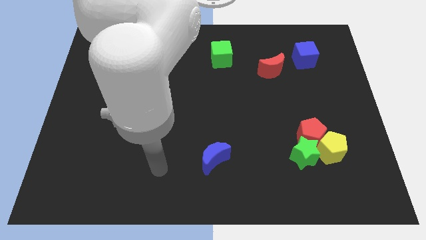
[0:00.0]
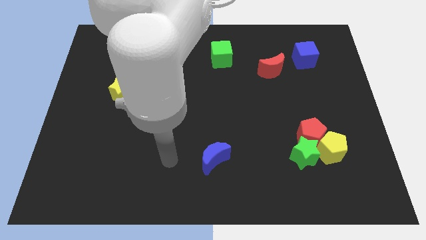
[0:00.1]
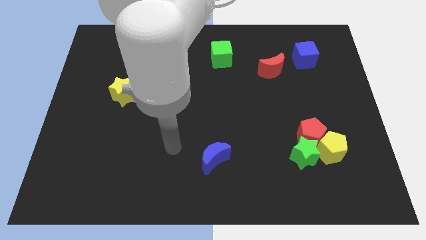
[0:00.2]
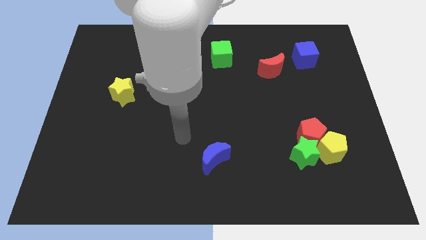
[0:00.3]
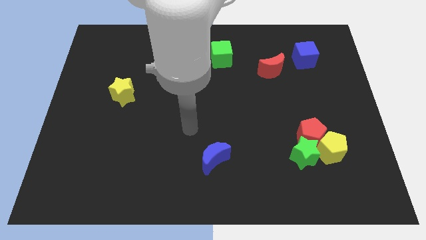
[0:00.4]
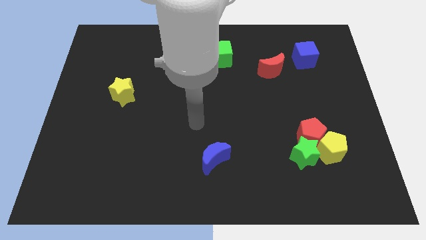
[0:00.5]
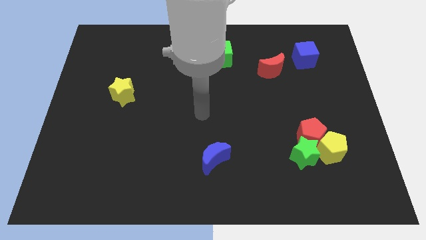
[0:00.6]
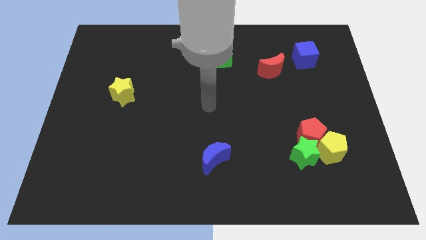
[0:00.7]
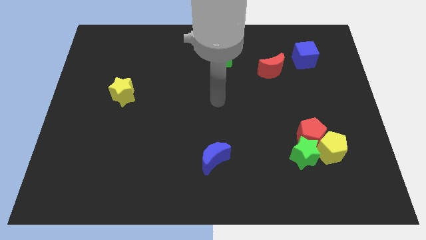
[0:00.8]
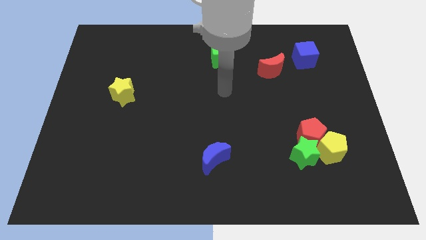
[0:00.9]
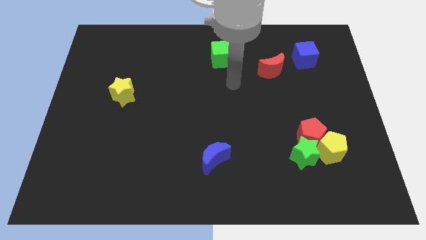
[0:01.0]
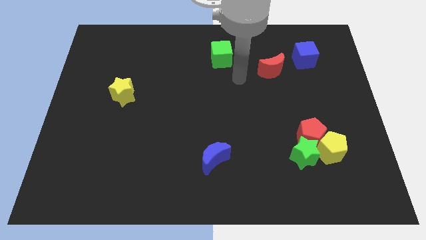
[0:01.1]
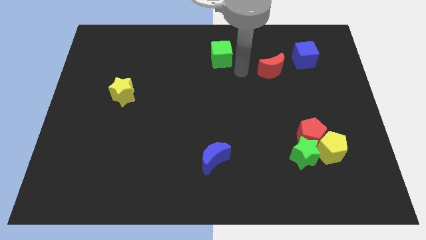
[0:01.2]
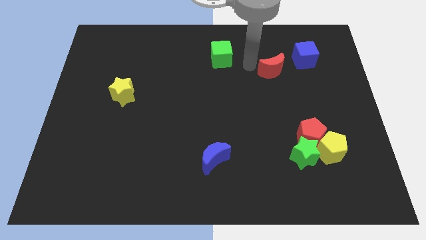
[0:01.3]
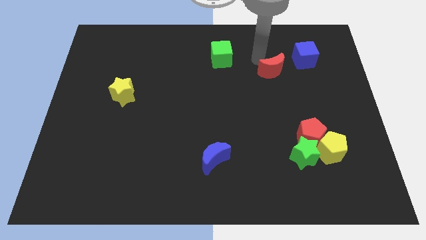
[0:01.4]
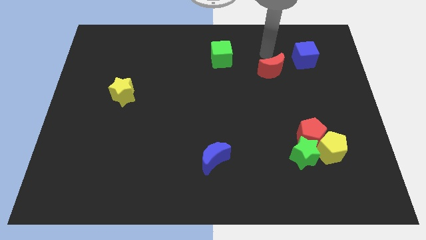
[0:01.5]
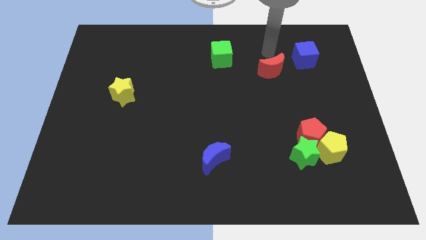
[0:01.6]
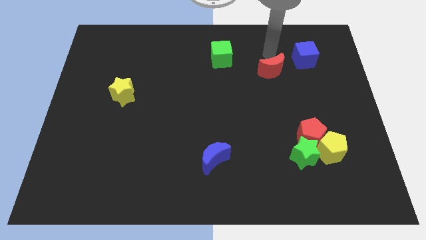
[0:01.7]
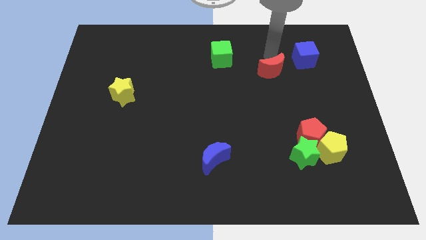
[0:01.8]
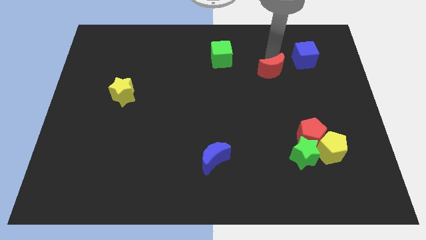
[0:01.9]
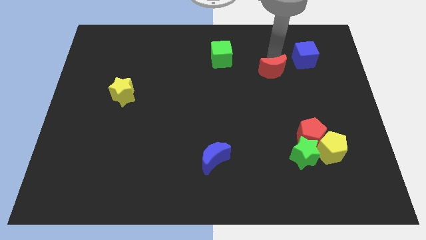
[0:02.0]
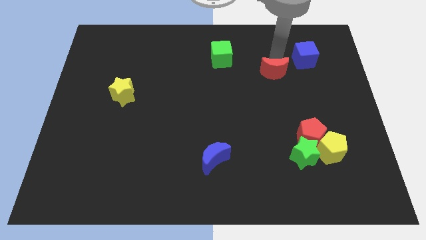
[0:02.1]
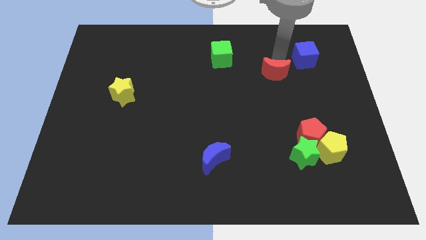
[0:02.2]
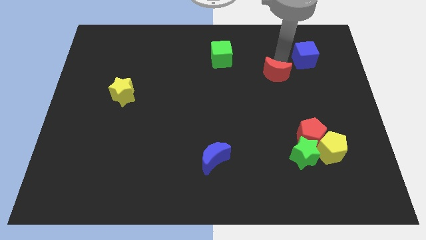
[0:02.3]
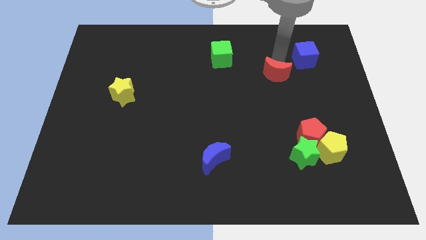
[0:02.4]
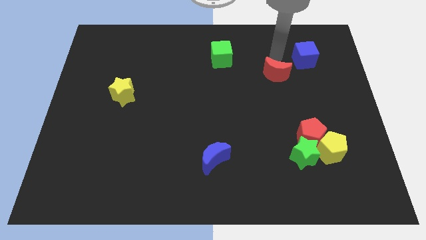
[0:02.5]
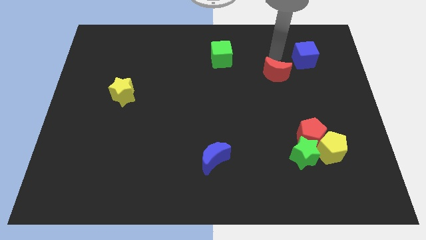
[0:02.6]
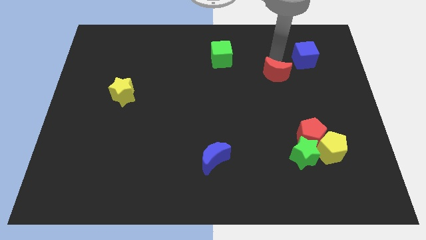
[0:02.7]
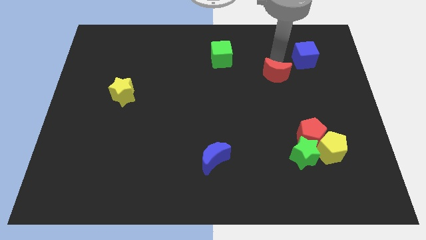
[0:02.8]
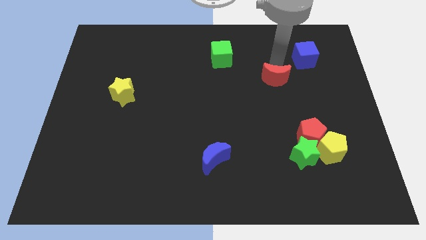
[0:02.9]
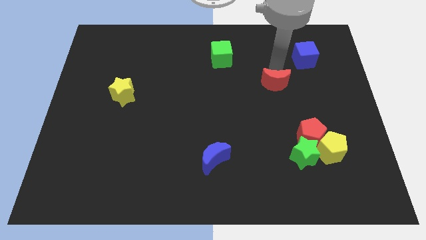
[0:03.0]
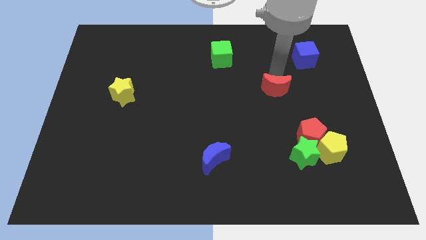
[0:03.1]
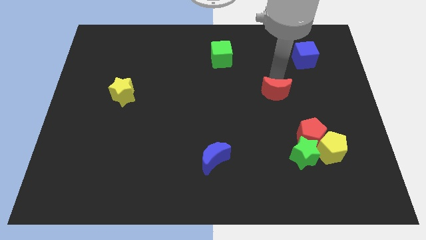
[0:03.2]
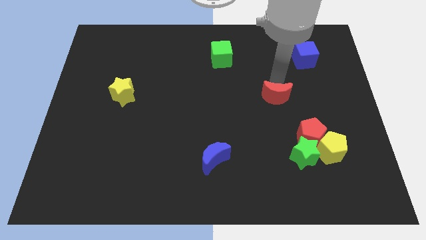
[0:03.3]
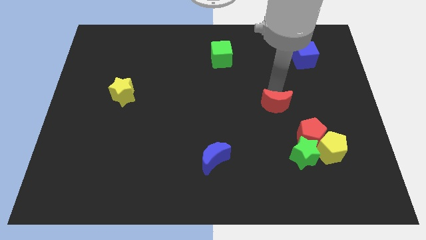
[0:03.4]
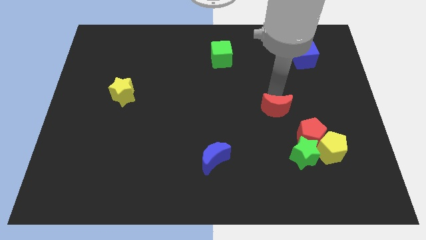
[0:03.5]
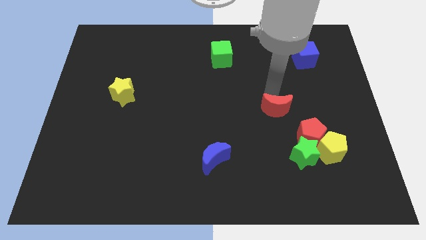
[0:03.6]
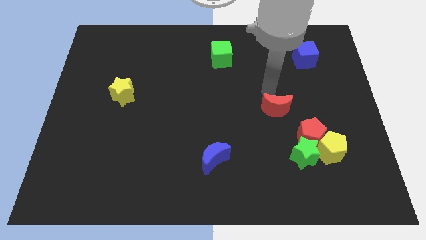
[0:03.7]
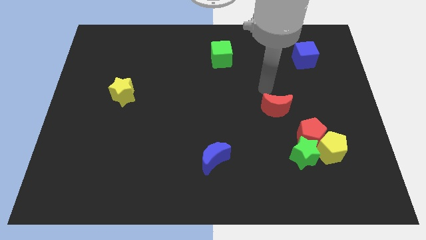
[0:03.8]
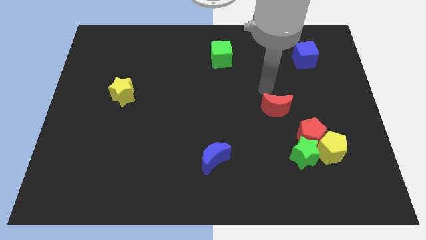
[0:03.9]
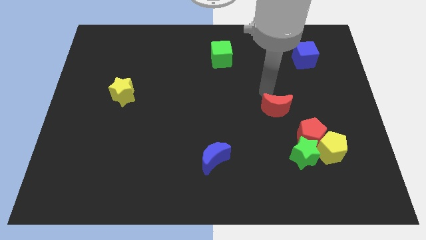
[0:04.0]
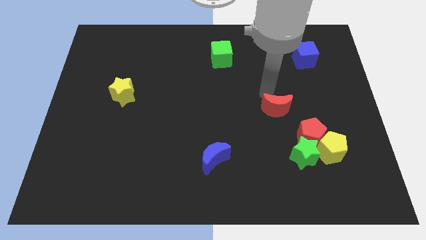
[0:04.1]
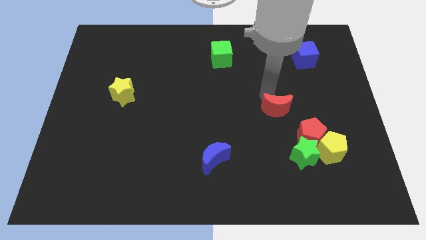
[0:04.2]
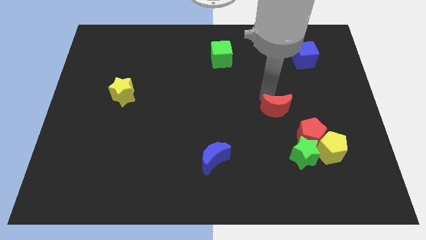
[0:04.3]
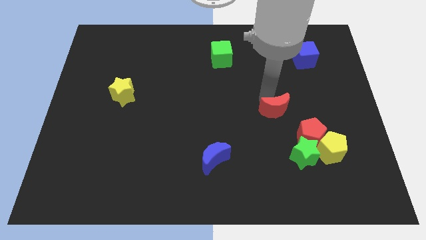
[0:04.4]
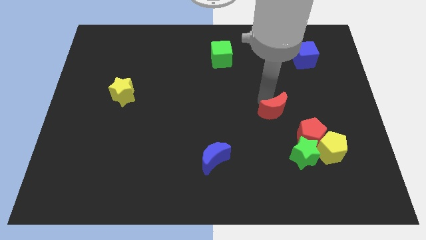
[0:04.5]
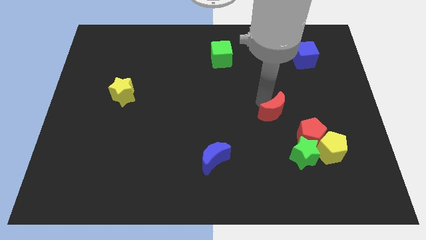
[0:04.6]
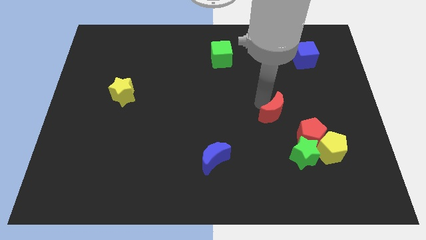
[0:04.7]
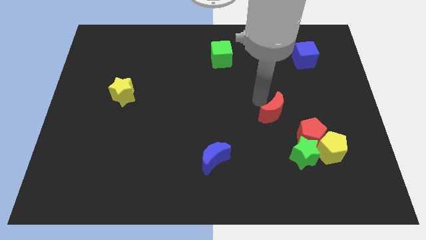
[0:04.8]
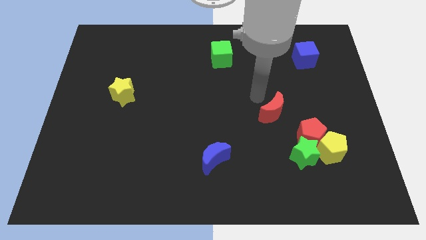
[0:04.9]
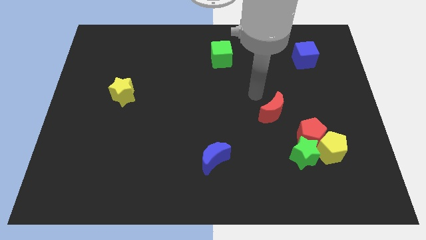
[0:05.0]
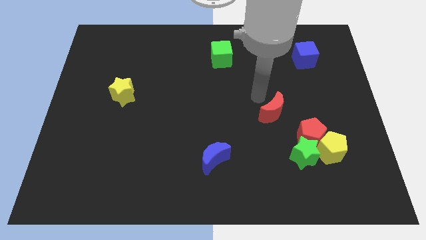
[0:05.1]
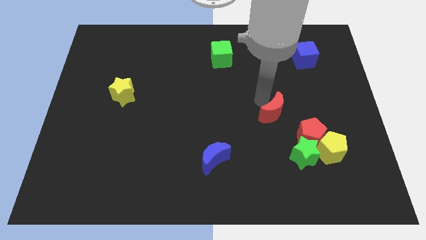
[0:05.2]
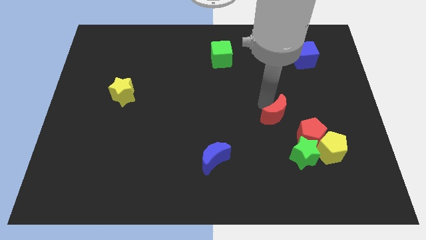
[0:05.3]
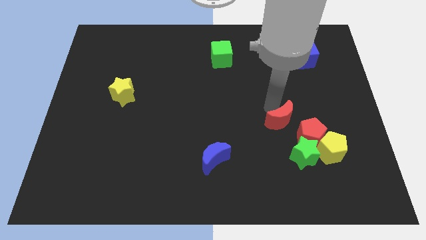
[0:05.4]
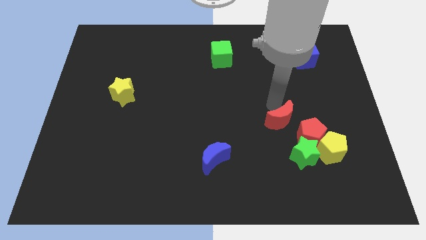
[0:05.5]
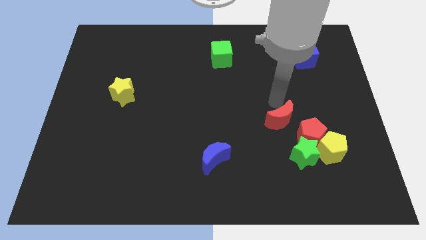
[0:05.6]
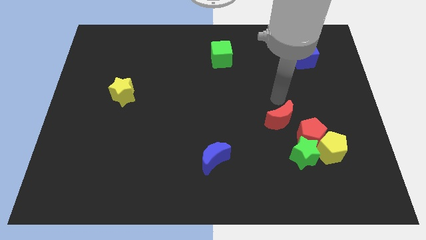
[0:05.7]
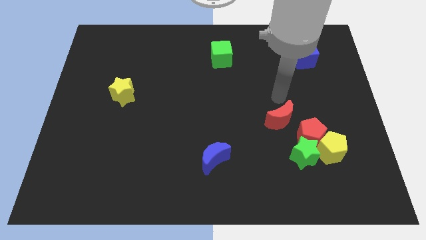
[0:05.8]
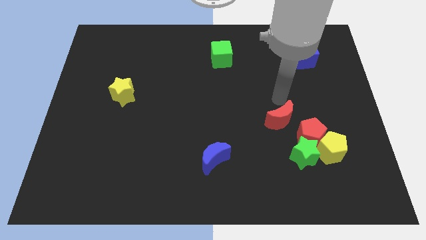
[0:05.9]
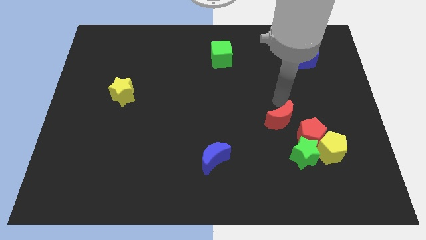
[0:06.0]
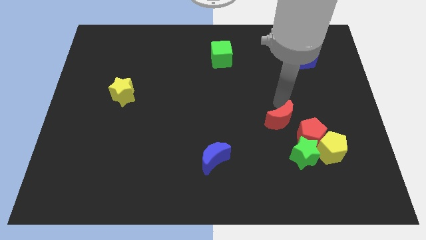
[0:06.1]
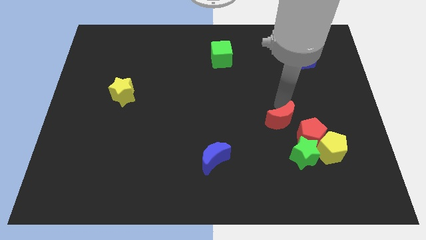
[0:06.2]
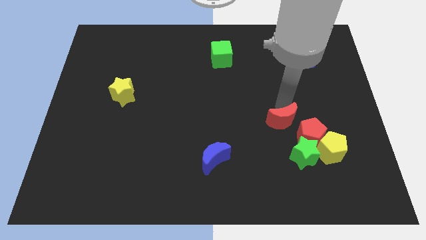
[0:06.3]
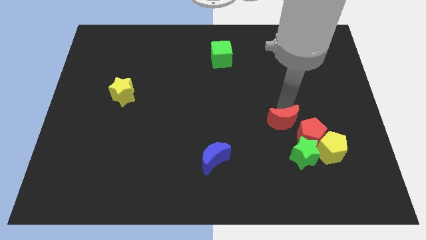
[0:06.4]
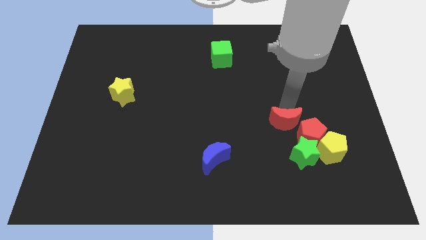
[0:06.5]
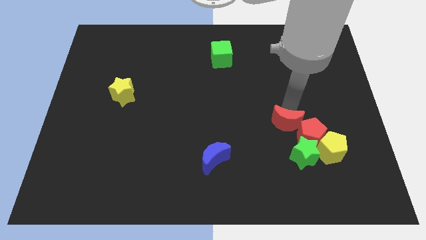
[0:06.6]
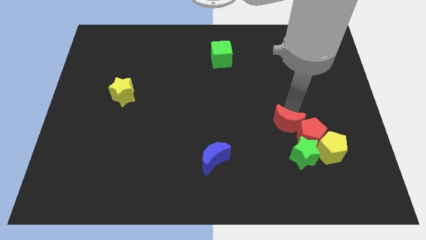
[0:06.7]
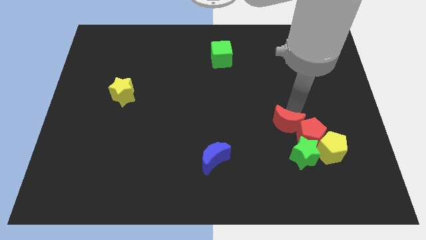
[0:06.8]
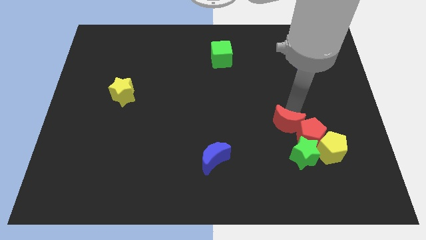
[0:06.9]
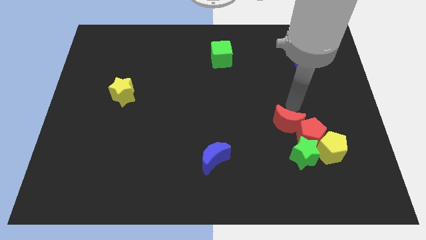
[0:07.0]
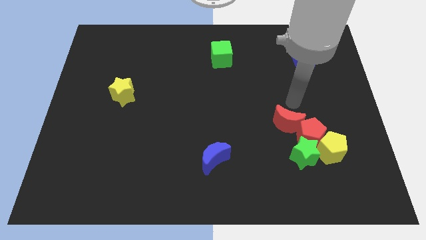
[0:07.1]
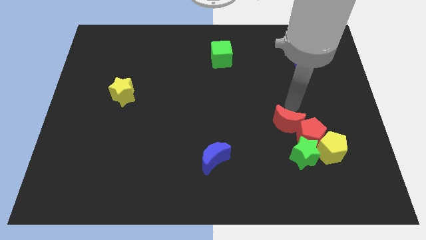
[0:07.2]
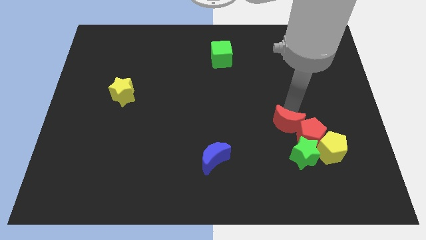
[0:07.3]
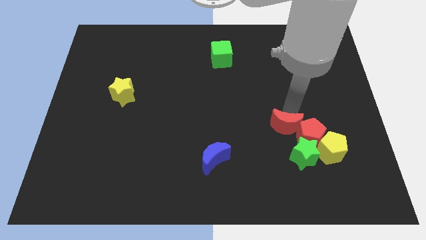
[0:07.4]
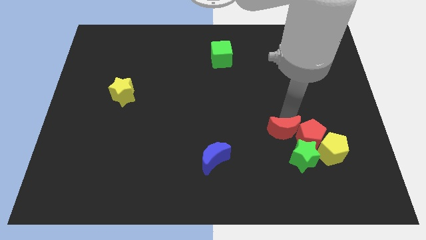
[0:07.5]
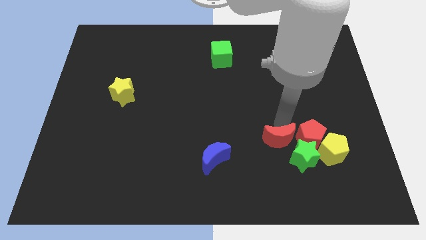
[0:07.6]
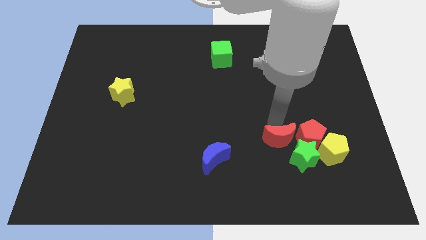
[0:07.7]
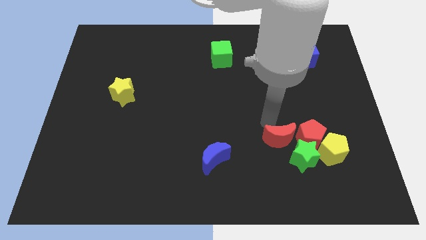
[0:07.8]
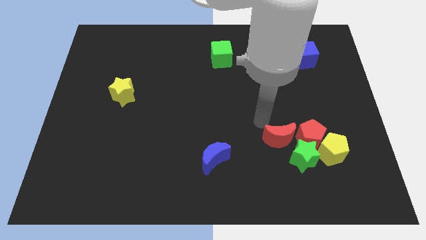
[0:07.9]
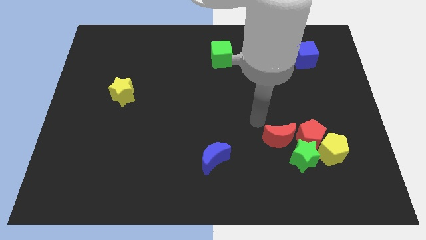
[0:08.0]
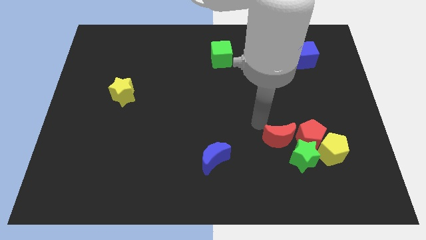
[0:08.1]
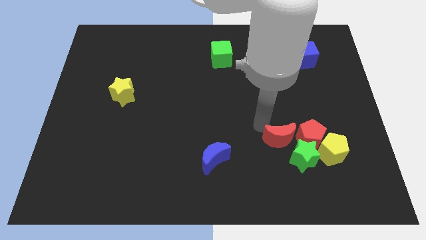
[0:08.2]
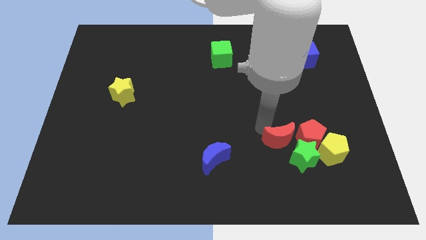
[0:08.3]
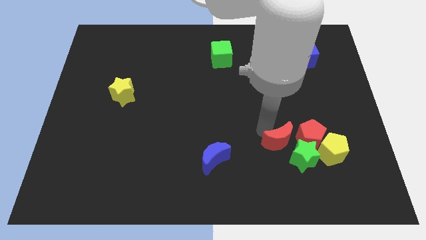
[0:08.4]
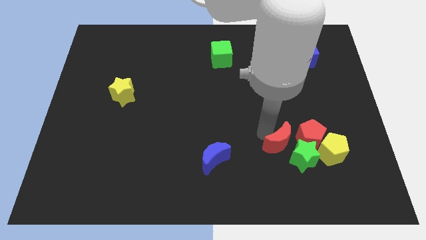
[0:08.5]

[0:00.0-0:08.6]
push the red moon close to the green star
